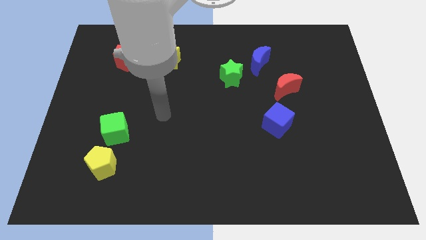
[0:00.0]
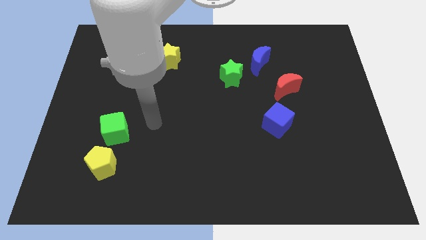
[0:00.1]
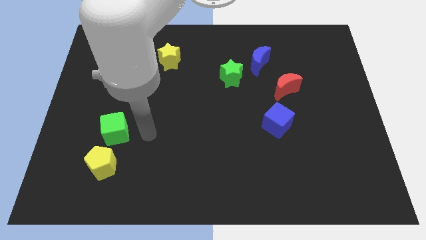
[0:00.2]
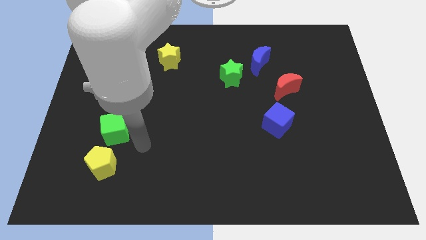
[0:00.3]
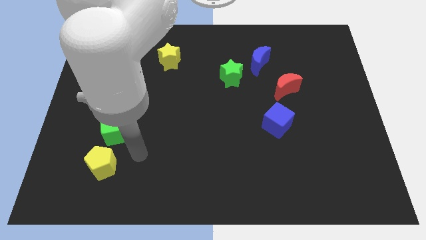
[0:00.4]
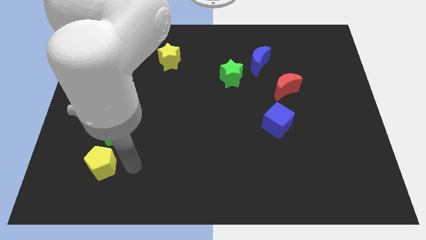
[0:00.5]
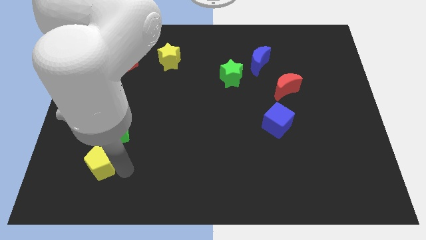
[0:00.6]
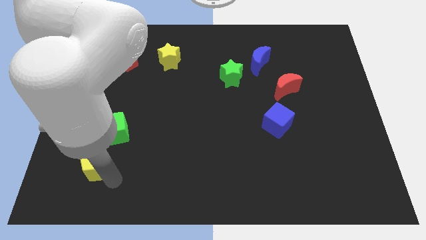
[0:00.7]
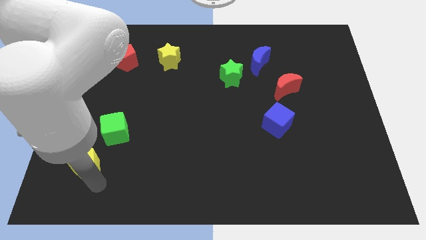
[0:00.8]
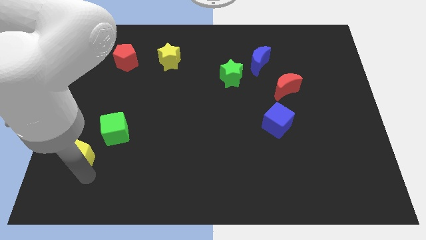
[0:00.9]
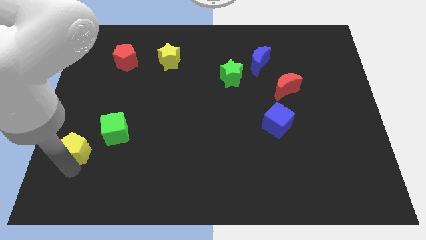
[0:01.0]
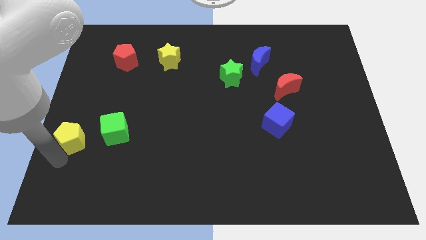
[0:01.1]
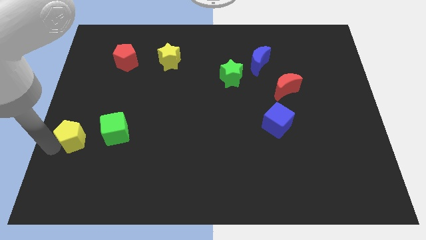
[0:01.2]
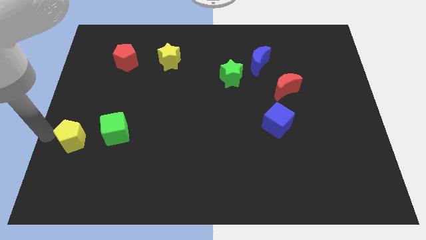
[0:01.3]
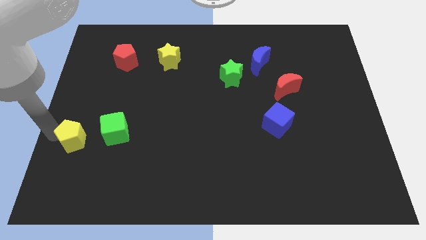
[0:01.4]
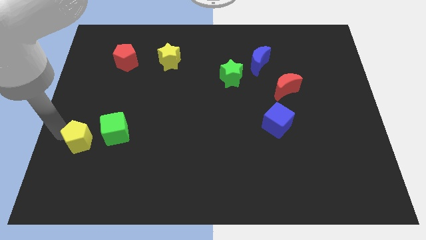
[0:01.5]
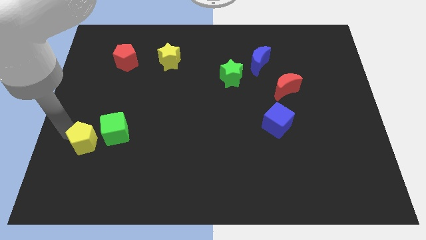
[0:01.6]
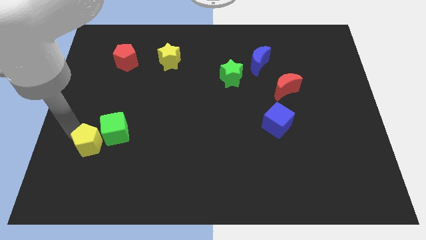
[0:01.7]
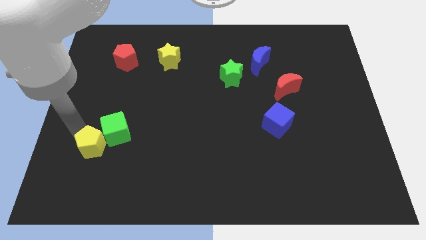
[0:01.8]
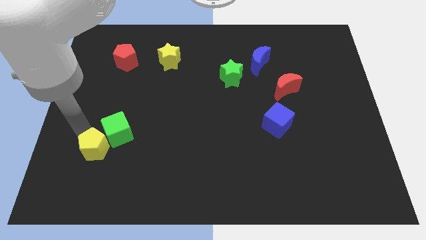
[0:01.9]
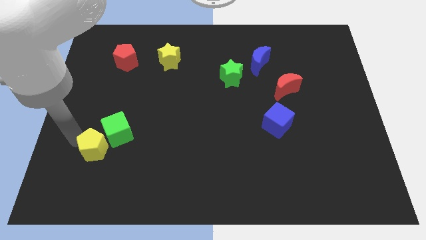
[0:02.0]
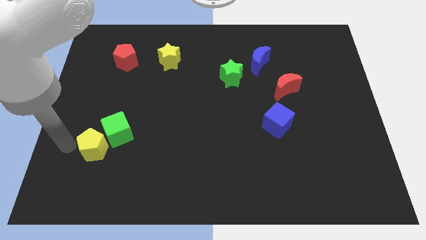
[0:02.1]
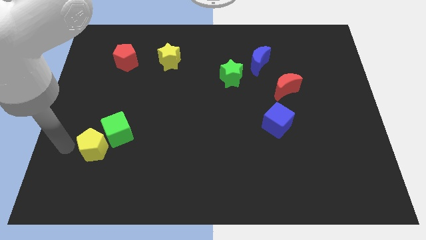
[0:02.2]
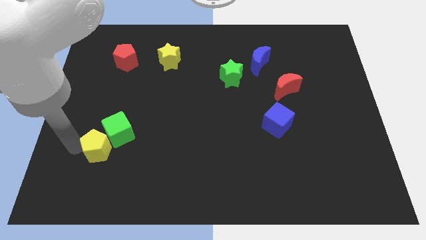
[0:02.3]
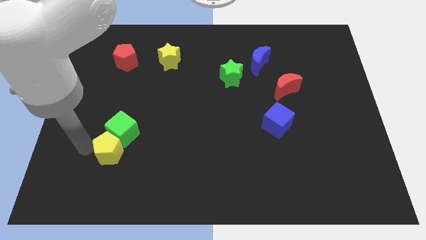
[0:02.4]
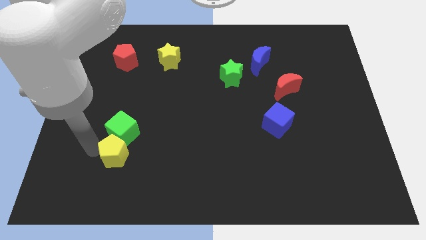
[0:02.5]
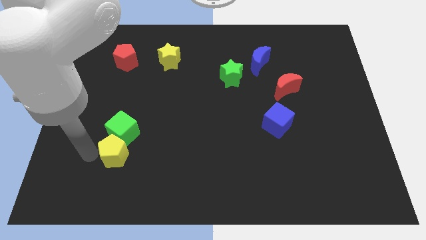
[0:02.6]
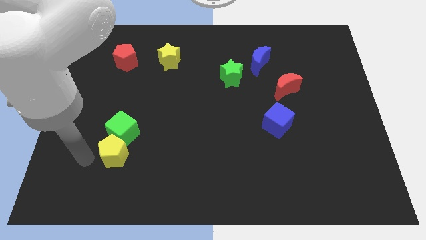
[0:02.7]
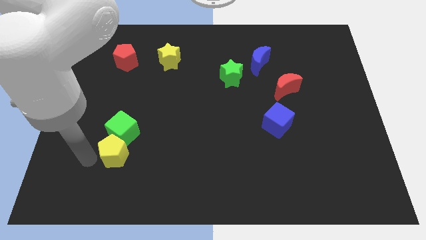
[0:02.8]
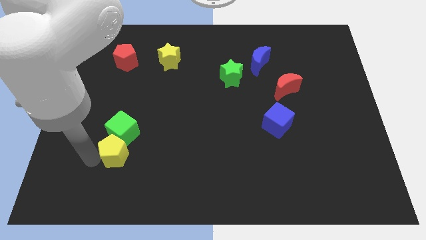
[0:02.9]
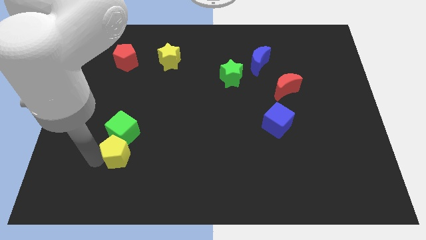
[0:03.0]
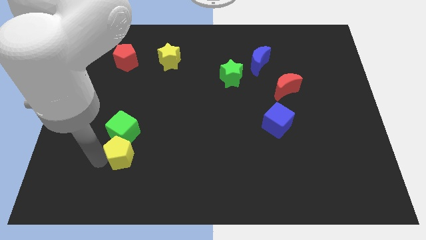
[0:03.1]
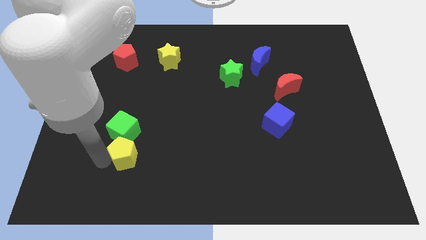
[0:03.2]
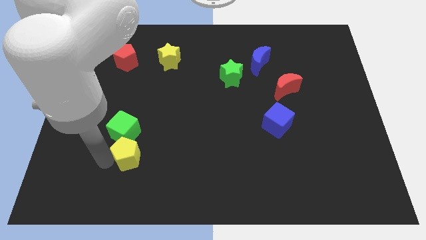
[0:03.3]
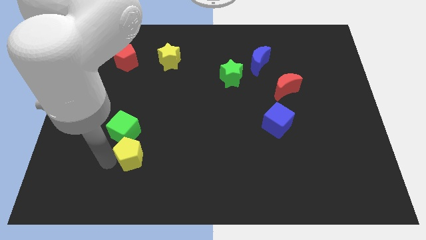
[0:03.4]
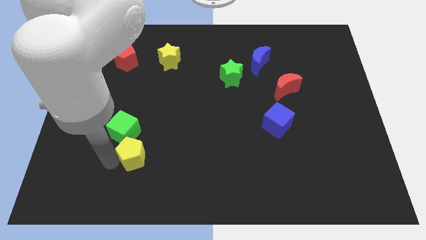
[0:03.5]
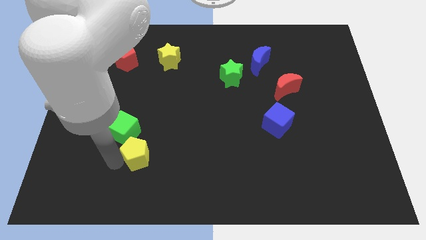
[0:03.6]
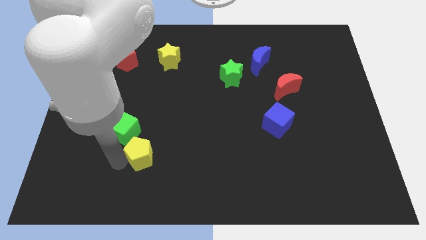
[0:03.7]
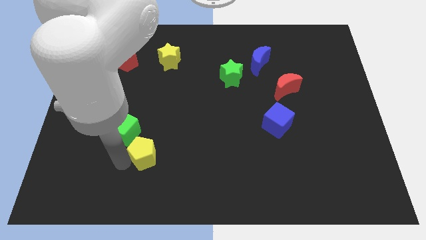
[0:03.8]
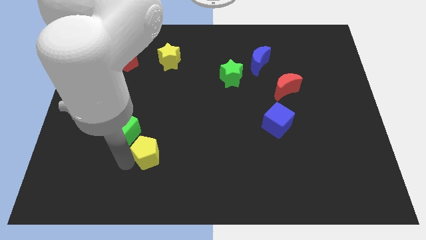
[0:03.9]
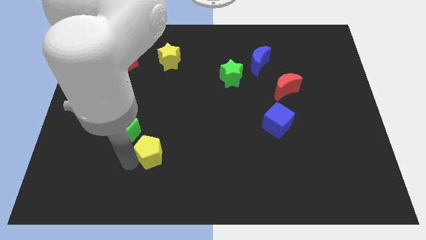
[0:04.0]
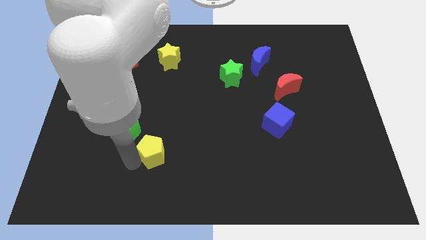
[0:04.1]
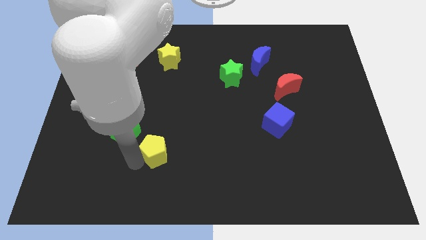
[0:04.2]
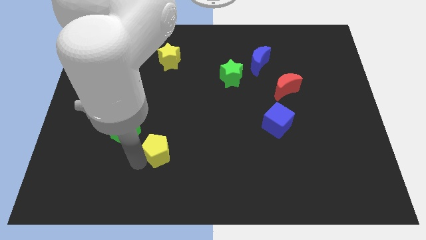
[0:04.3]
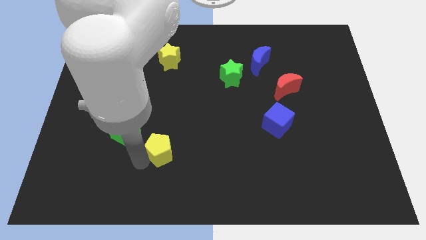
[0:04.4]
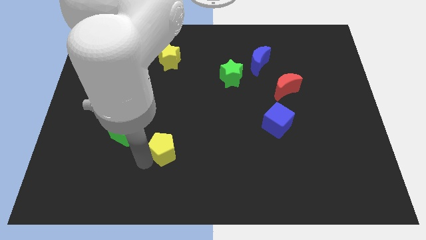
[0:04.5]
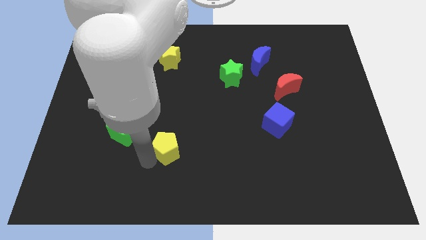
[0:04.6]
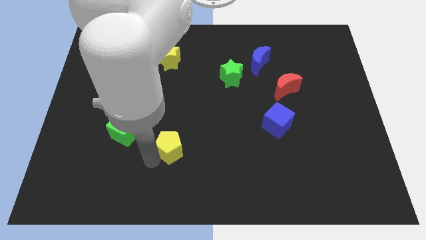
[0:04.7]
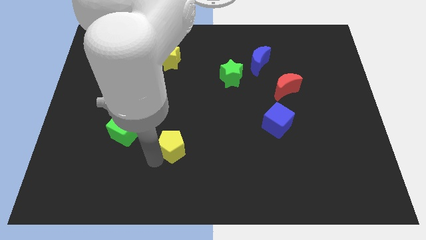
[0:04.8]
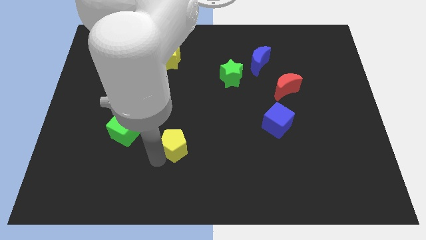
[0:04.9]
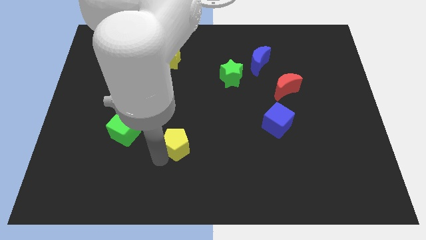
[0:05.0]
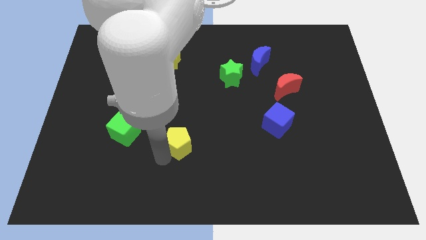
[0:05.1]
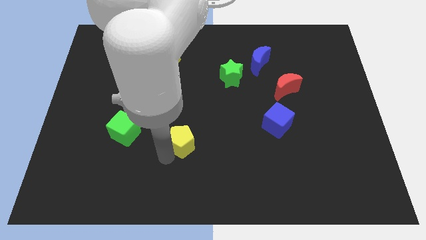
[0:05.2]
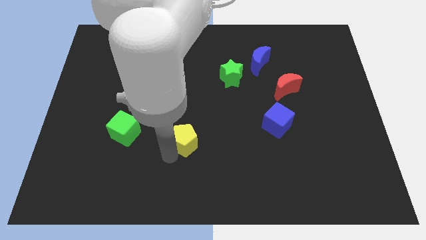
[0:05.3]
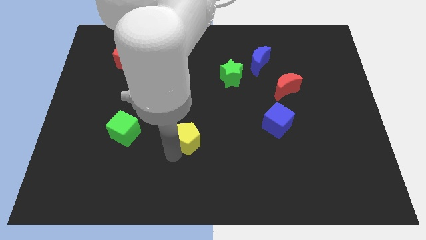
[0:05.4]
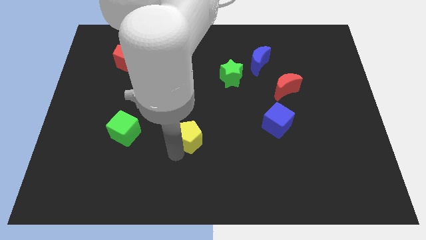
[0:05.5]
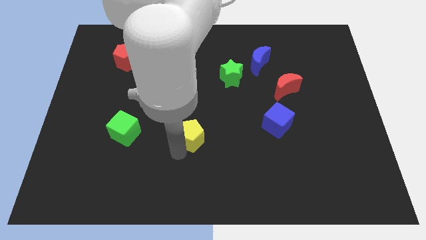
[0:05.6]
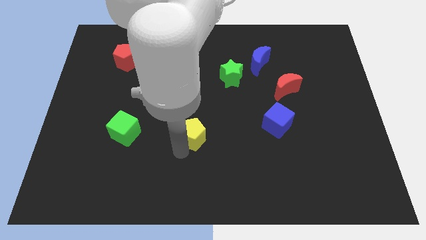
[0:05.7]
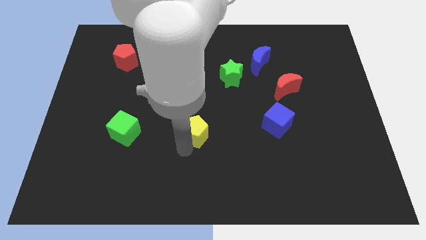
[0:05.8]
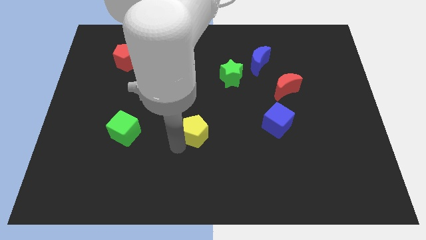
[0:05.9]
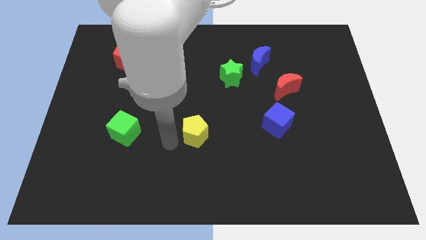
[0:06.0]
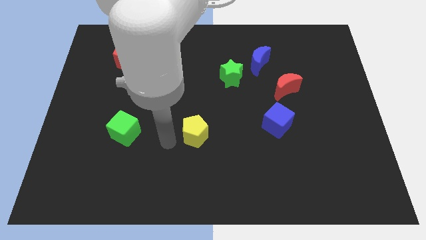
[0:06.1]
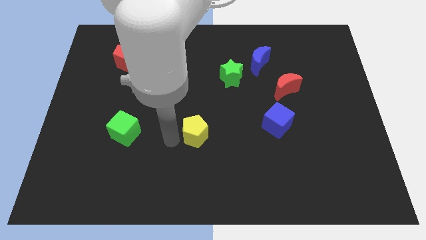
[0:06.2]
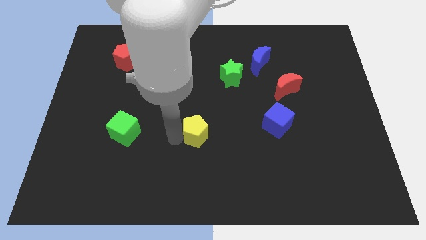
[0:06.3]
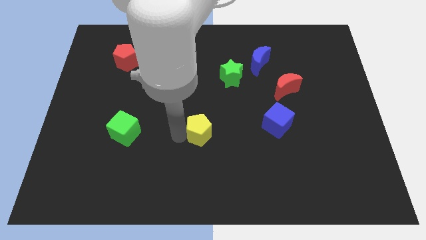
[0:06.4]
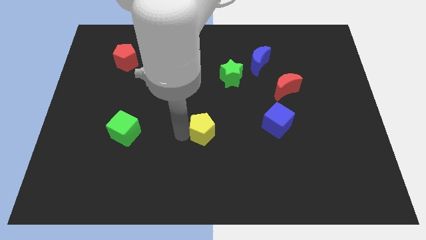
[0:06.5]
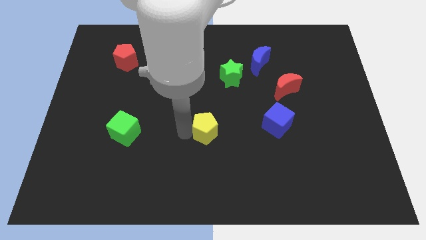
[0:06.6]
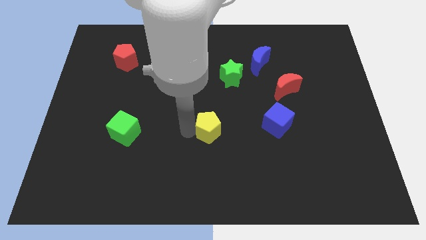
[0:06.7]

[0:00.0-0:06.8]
put the yellow pentagon left of the blue cube
